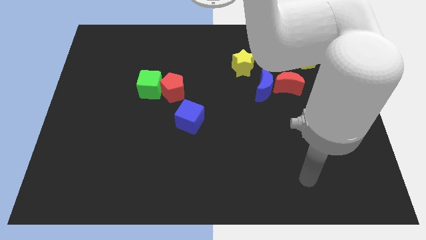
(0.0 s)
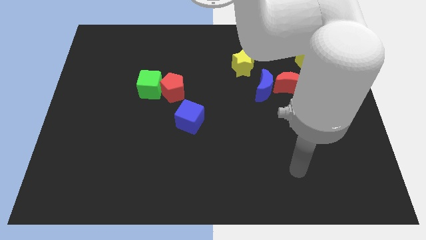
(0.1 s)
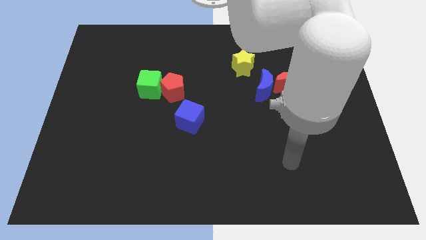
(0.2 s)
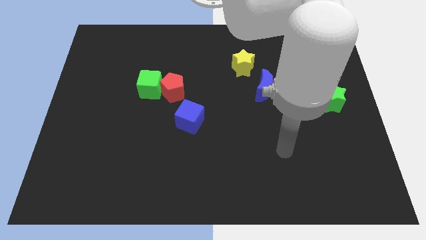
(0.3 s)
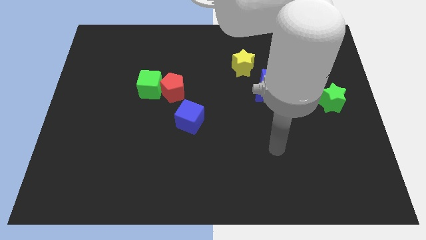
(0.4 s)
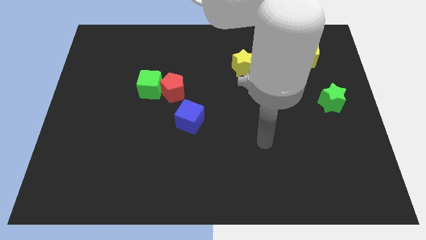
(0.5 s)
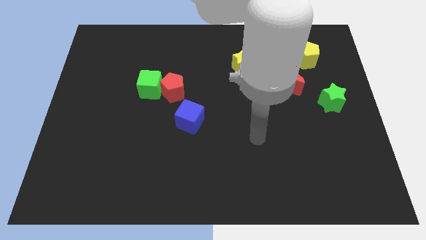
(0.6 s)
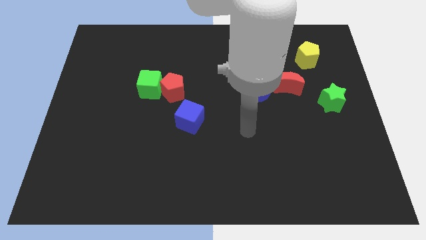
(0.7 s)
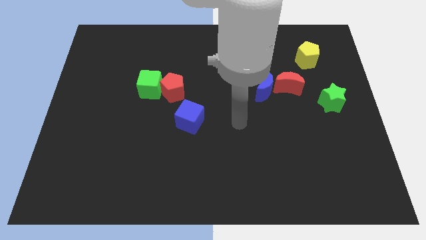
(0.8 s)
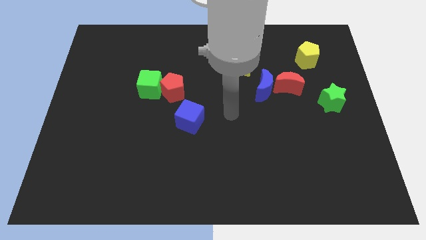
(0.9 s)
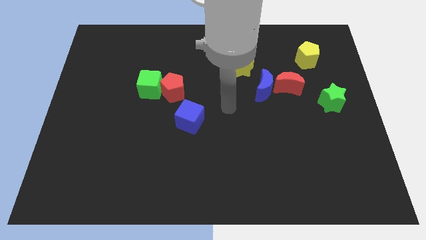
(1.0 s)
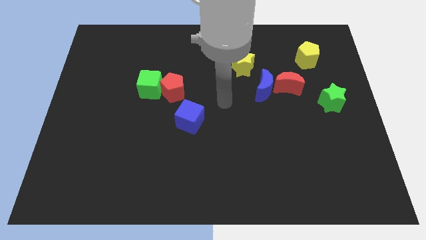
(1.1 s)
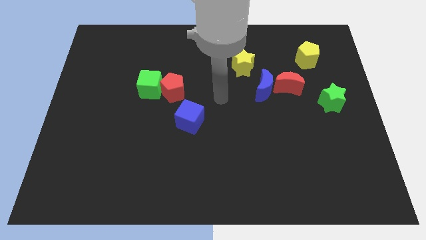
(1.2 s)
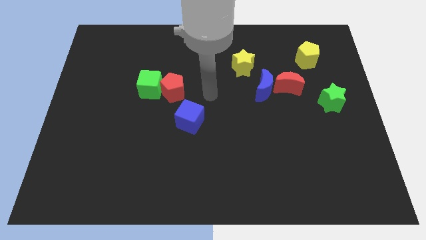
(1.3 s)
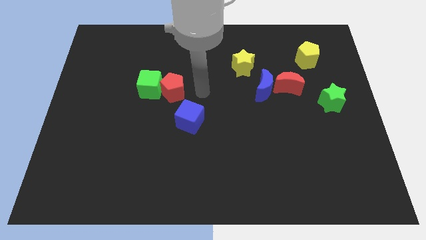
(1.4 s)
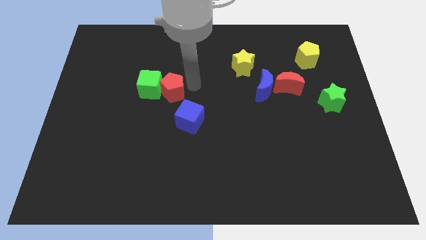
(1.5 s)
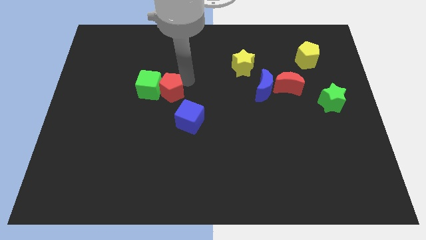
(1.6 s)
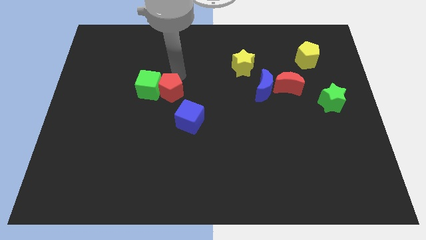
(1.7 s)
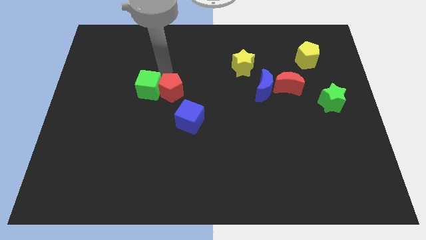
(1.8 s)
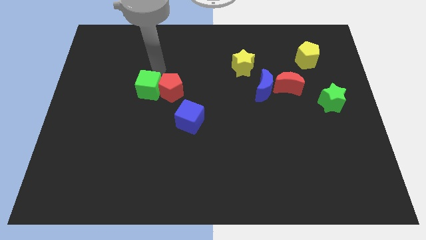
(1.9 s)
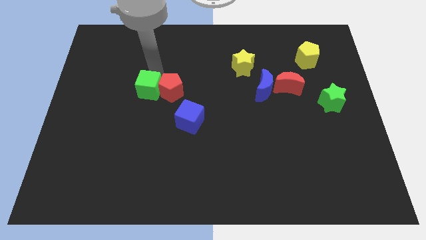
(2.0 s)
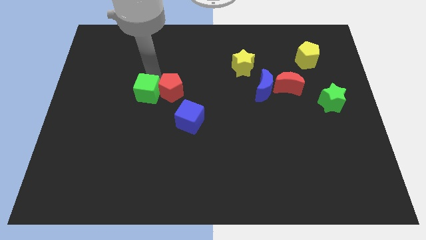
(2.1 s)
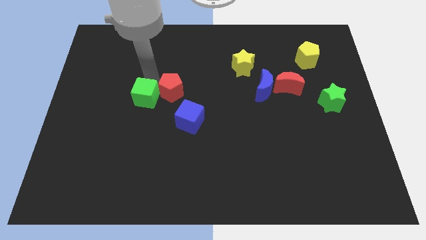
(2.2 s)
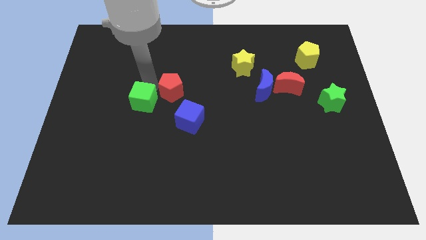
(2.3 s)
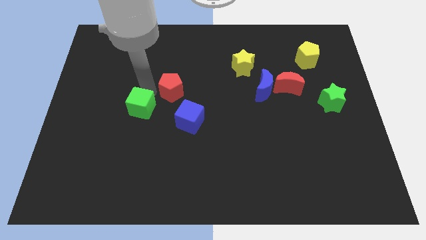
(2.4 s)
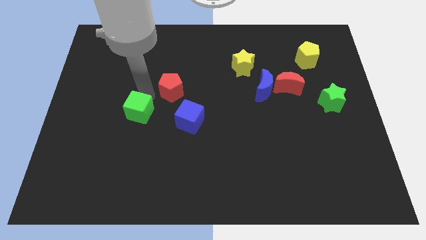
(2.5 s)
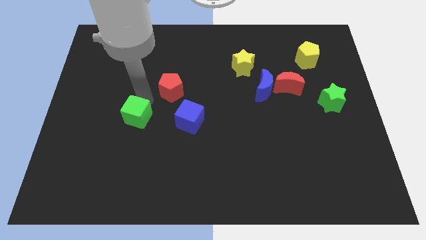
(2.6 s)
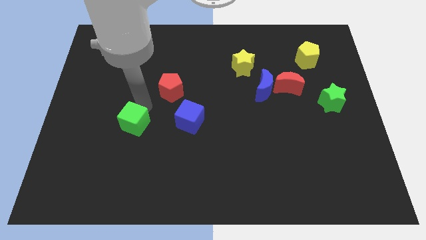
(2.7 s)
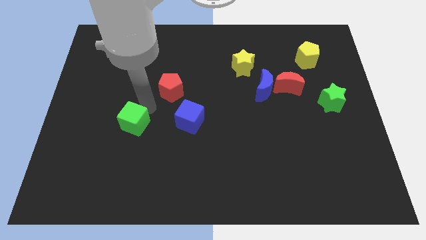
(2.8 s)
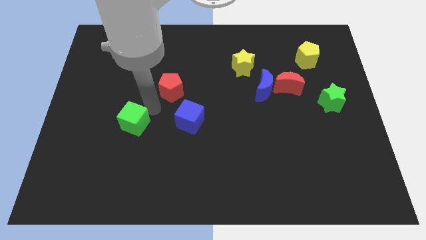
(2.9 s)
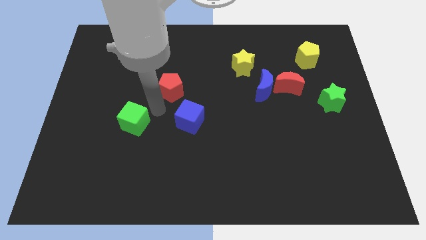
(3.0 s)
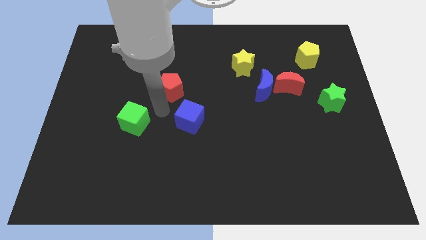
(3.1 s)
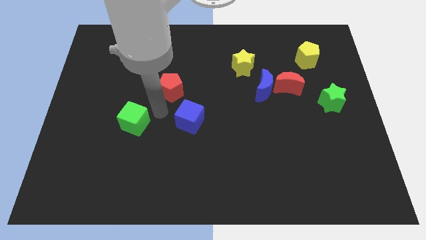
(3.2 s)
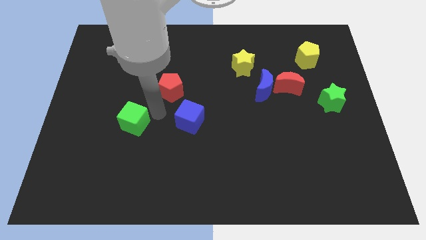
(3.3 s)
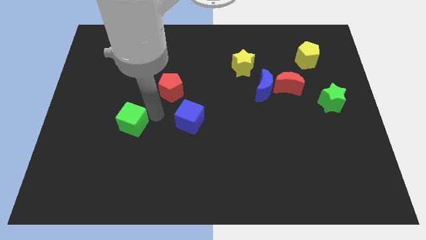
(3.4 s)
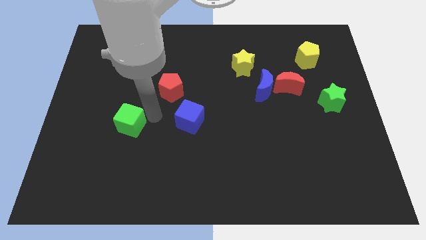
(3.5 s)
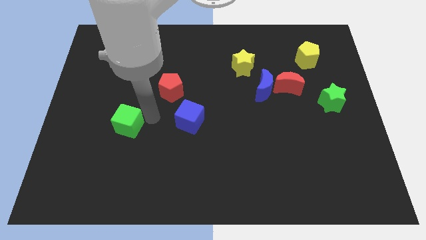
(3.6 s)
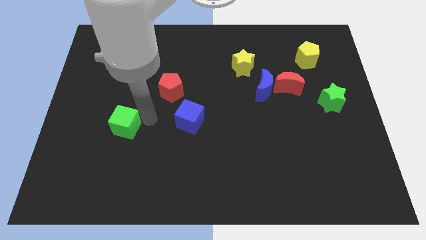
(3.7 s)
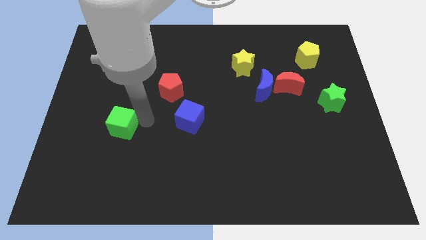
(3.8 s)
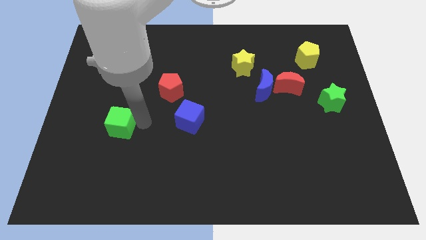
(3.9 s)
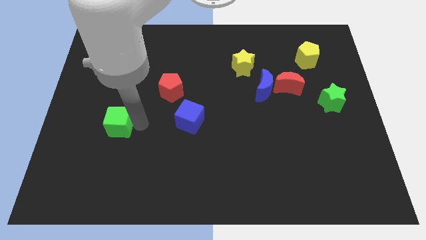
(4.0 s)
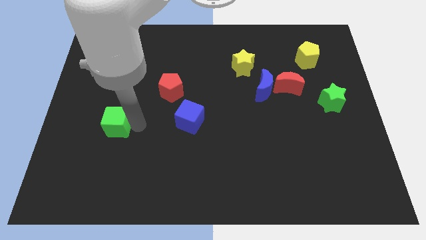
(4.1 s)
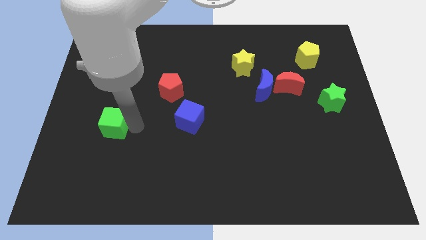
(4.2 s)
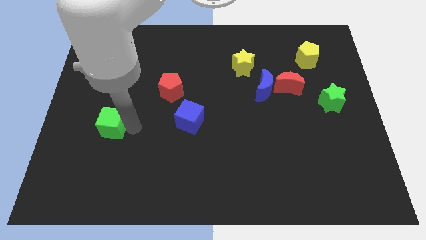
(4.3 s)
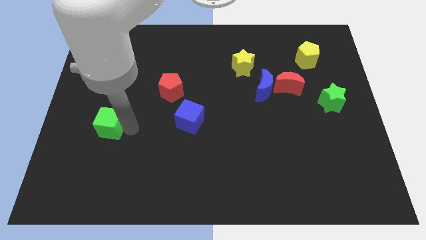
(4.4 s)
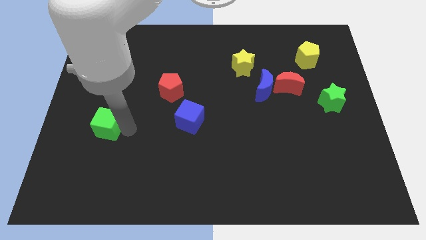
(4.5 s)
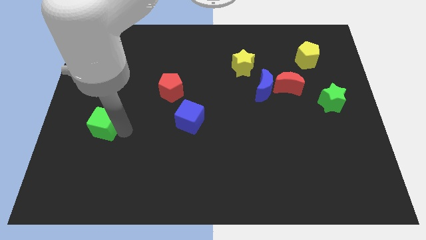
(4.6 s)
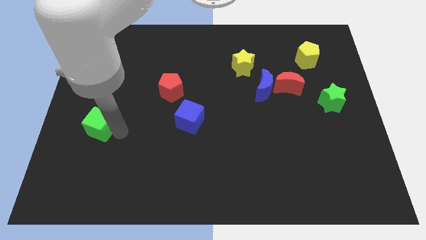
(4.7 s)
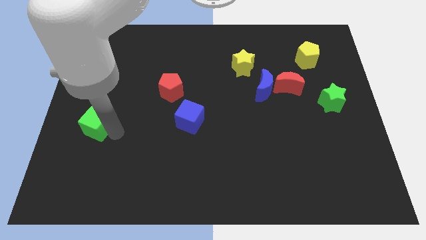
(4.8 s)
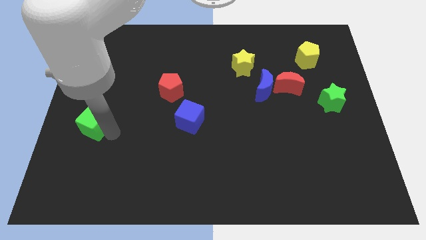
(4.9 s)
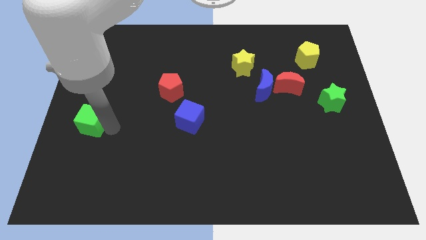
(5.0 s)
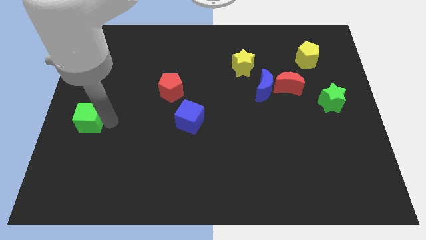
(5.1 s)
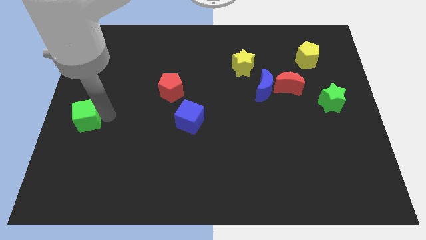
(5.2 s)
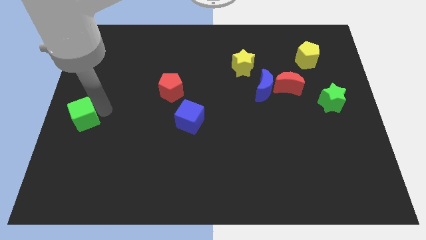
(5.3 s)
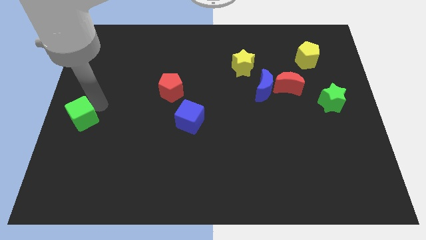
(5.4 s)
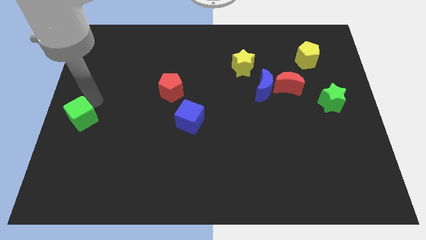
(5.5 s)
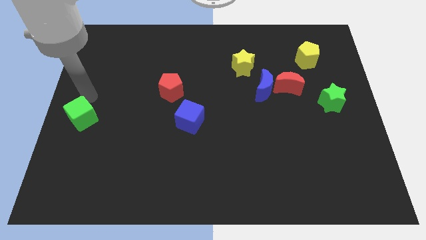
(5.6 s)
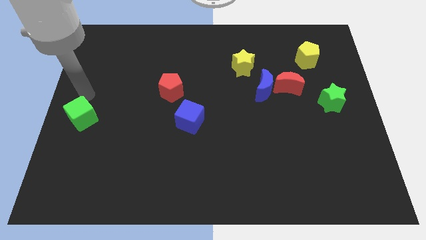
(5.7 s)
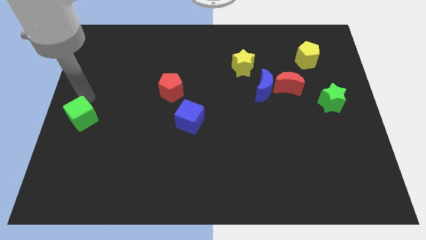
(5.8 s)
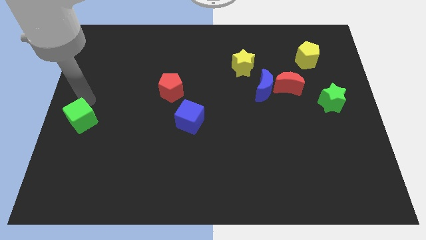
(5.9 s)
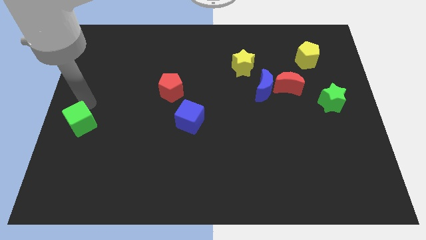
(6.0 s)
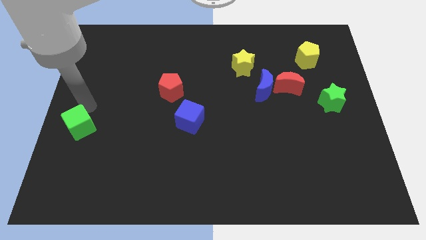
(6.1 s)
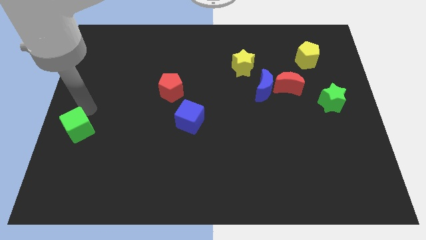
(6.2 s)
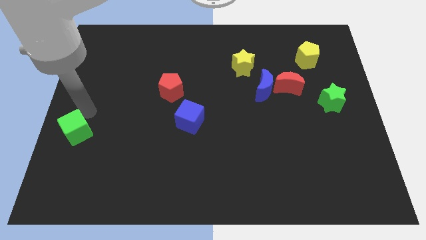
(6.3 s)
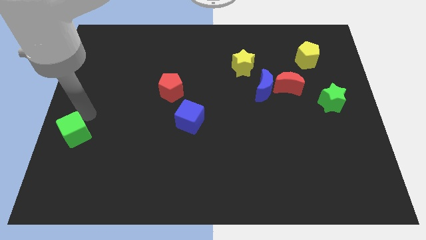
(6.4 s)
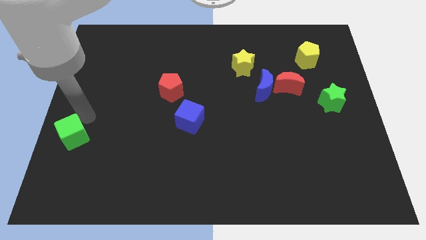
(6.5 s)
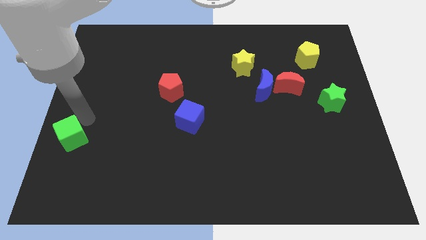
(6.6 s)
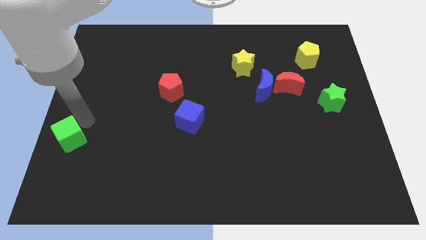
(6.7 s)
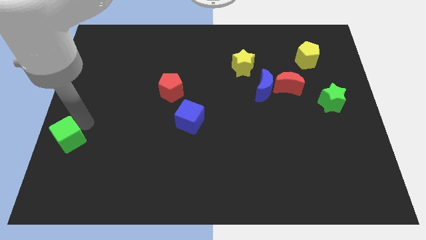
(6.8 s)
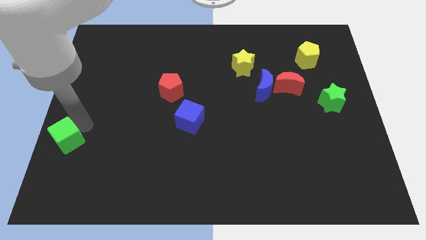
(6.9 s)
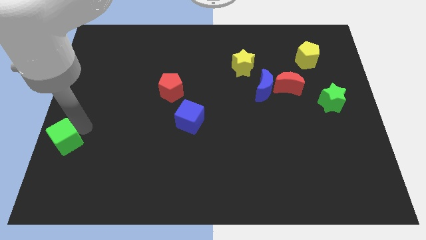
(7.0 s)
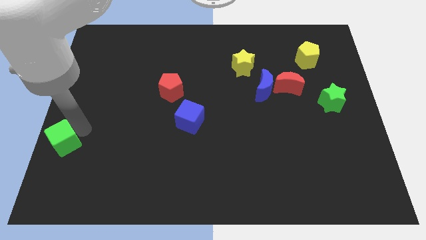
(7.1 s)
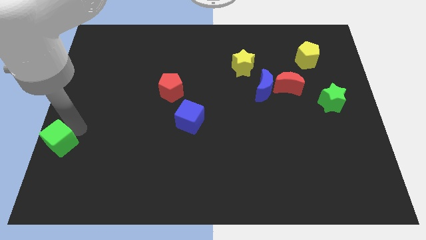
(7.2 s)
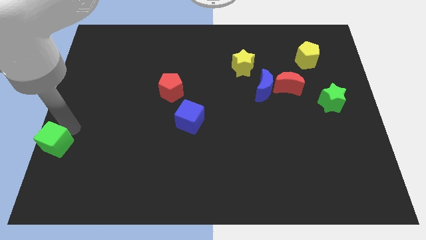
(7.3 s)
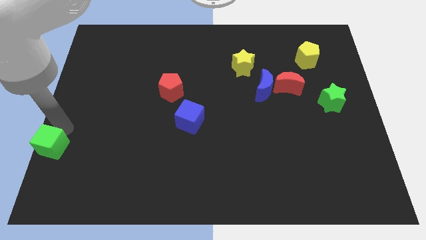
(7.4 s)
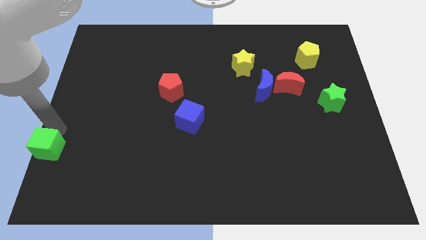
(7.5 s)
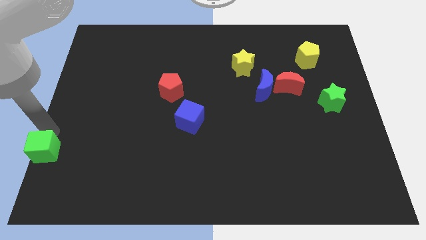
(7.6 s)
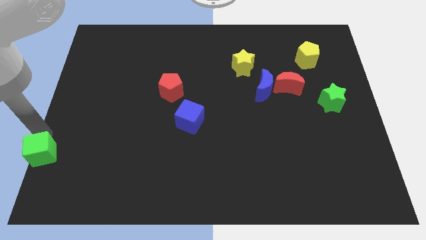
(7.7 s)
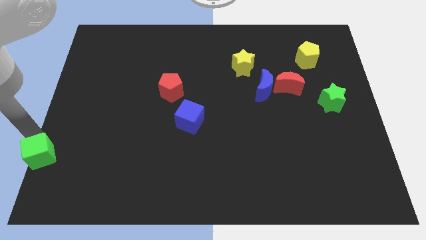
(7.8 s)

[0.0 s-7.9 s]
put the green cube to the lower left corner
